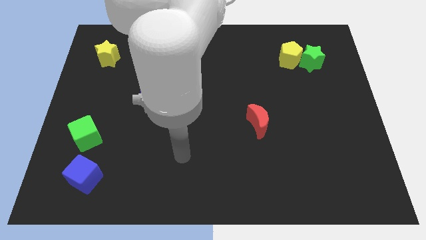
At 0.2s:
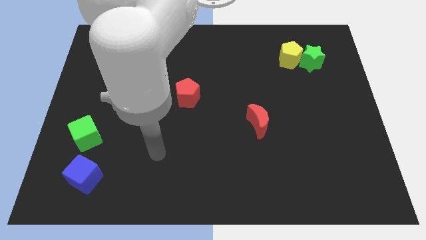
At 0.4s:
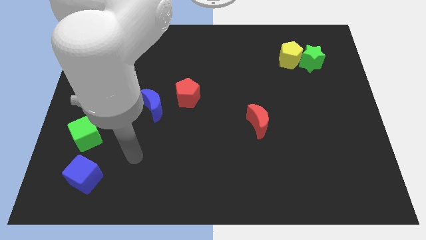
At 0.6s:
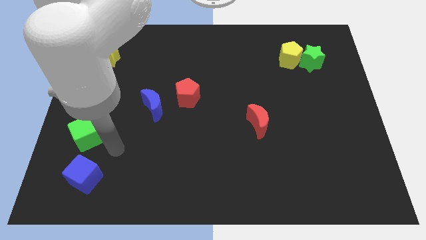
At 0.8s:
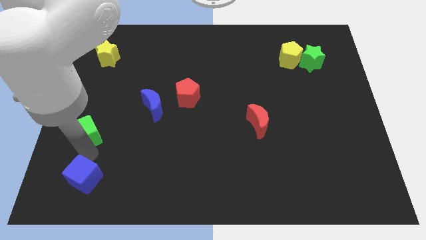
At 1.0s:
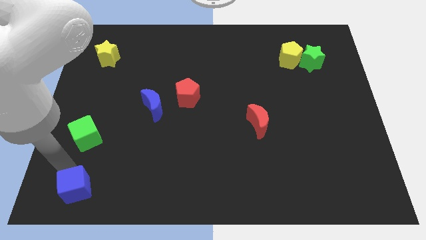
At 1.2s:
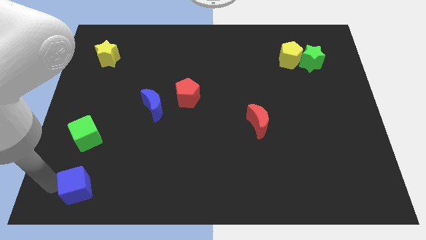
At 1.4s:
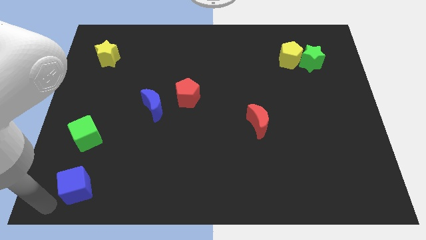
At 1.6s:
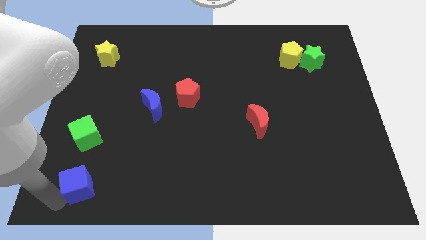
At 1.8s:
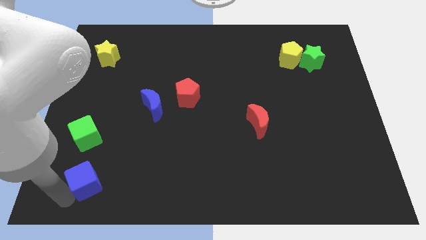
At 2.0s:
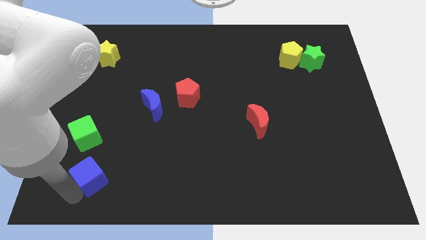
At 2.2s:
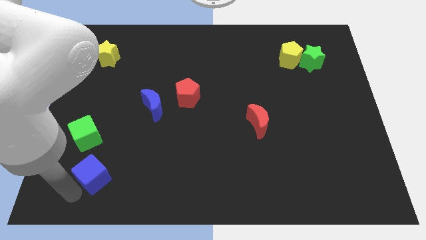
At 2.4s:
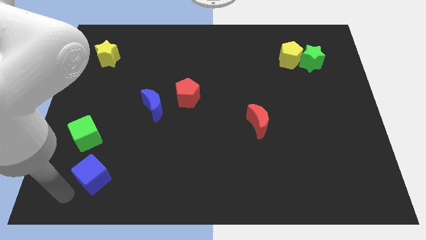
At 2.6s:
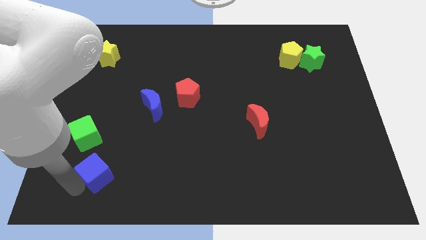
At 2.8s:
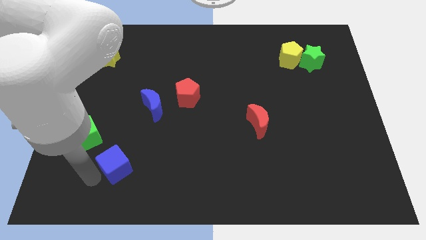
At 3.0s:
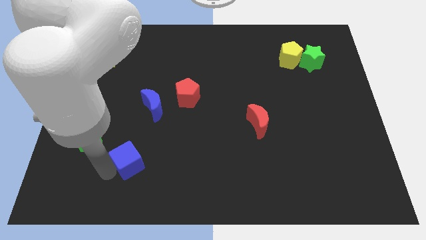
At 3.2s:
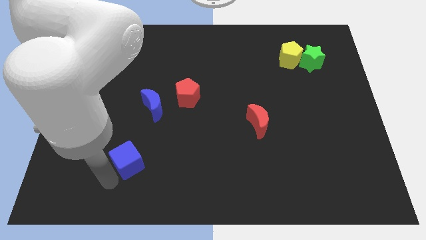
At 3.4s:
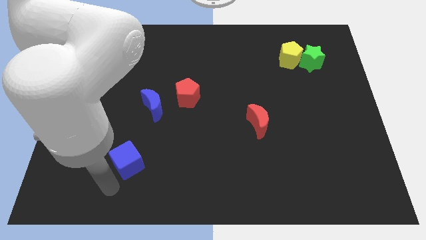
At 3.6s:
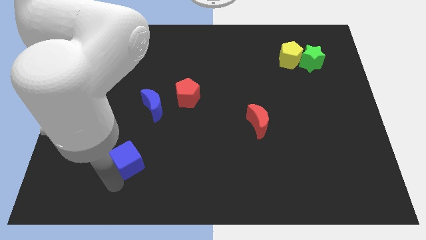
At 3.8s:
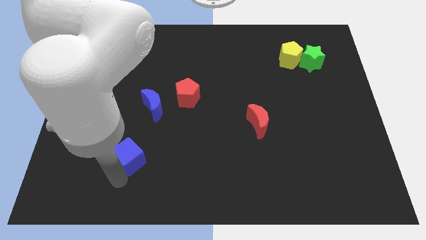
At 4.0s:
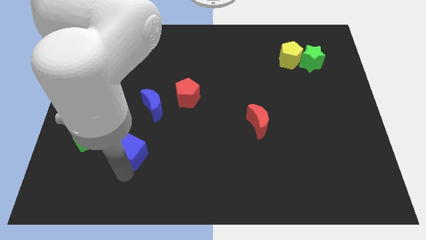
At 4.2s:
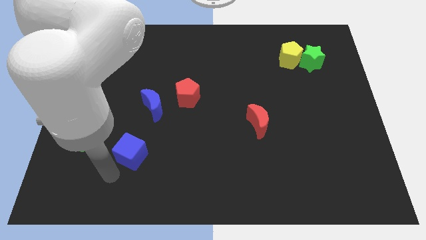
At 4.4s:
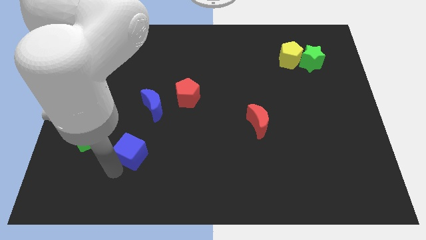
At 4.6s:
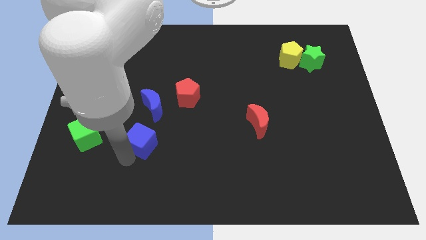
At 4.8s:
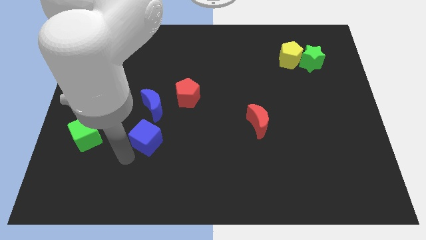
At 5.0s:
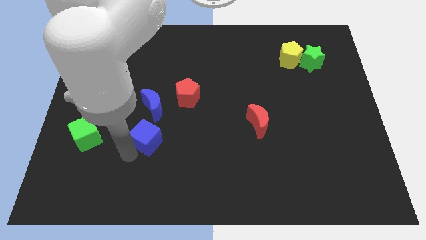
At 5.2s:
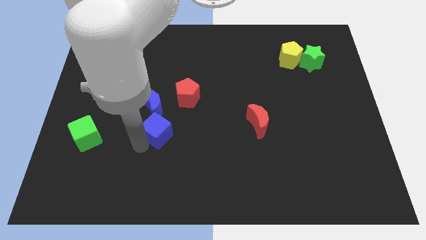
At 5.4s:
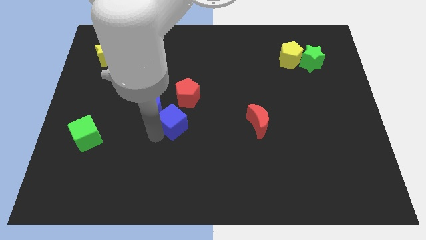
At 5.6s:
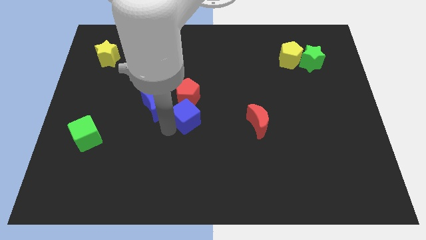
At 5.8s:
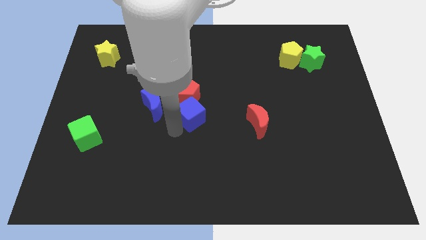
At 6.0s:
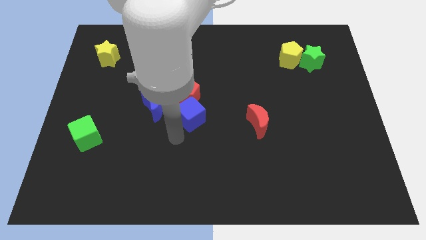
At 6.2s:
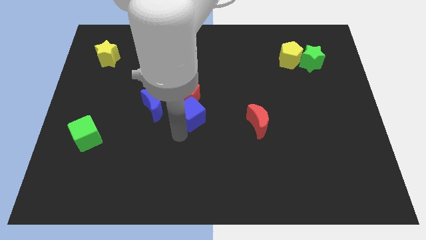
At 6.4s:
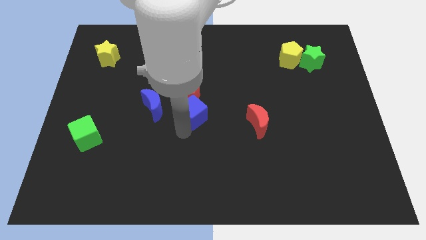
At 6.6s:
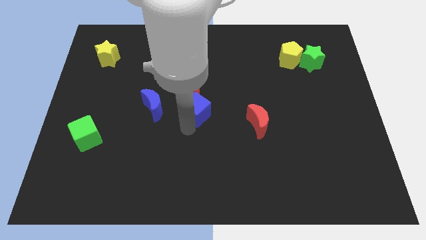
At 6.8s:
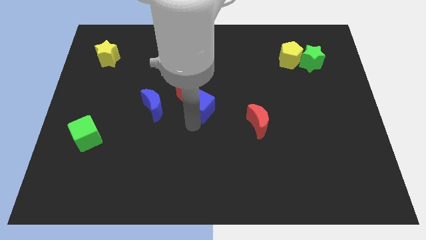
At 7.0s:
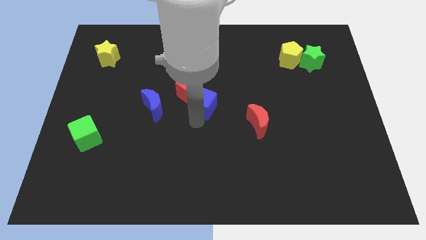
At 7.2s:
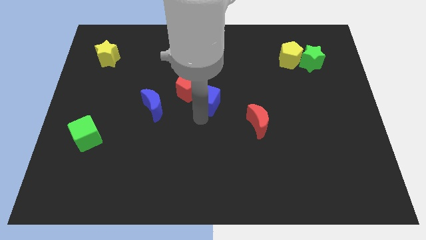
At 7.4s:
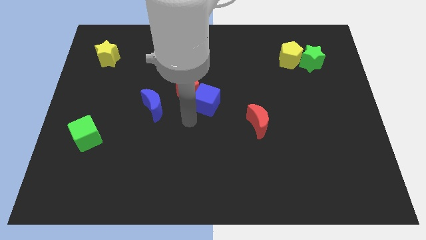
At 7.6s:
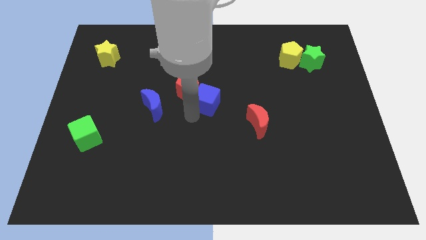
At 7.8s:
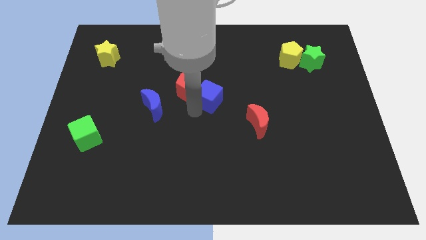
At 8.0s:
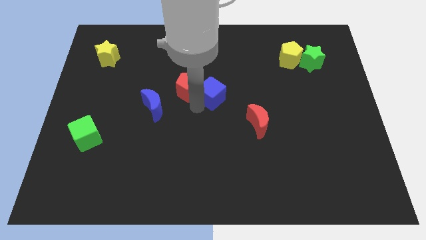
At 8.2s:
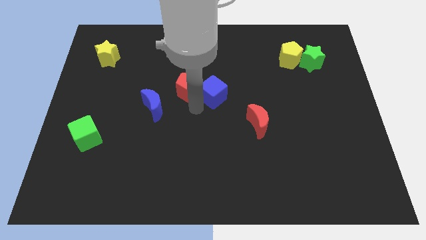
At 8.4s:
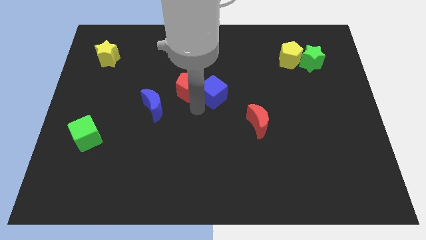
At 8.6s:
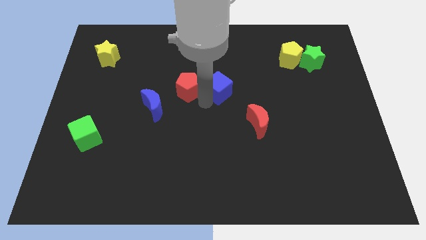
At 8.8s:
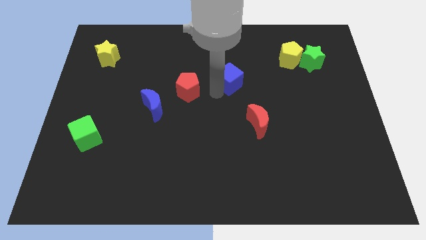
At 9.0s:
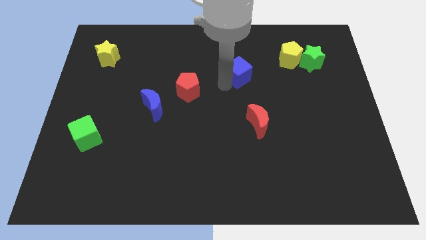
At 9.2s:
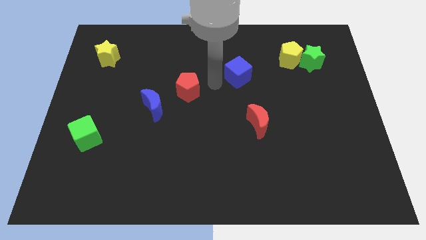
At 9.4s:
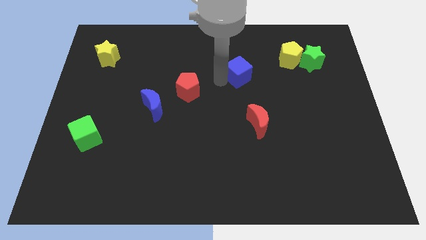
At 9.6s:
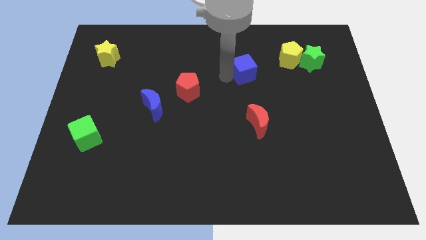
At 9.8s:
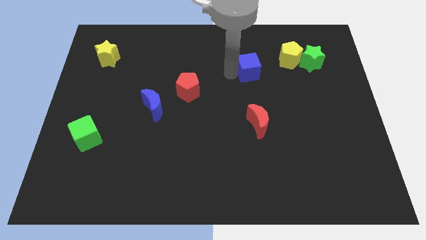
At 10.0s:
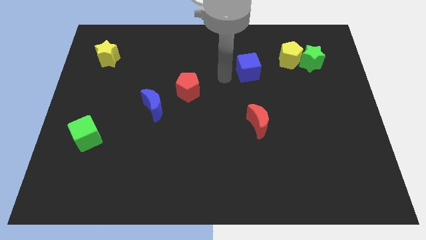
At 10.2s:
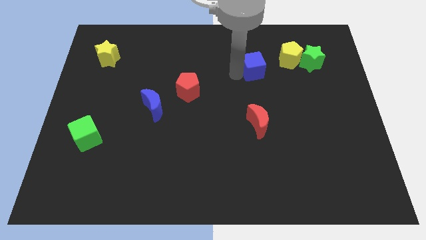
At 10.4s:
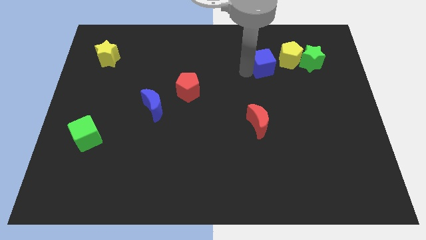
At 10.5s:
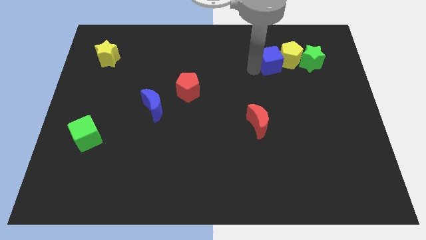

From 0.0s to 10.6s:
push the blue cube close to the yellow pentagon

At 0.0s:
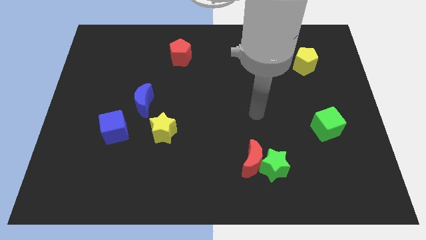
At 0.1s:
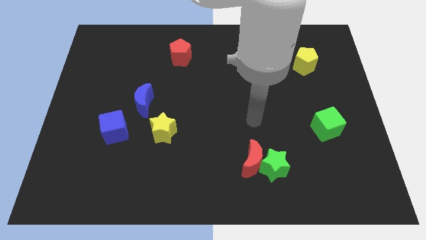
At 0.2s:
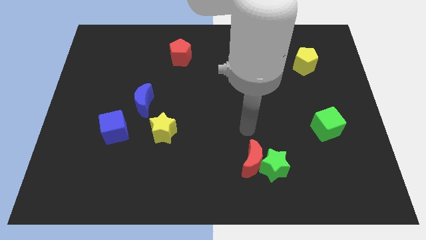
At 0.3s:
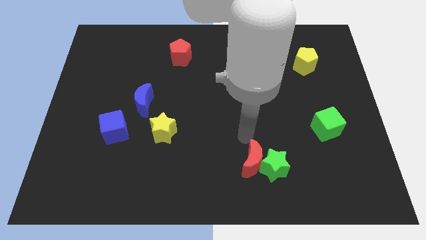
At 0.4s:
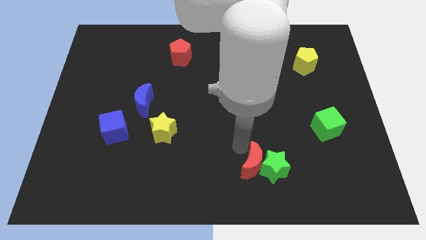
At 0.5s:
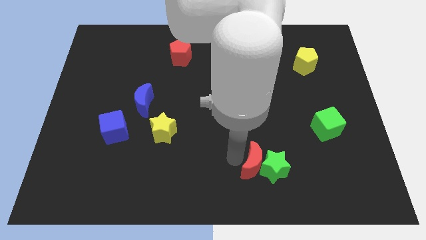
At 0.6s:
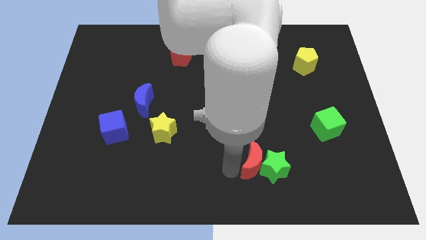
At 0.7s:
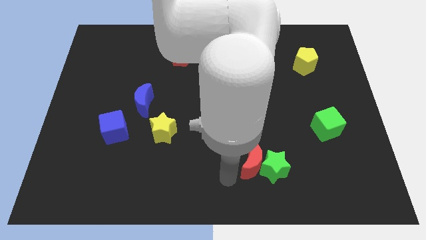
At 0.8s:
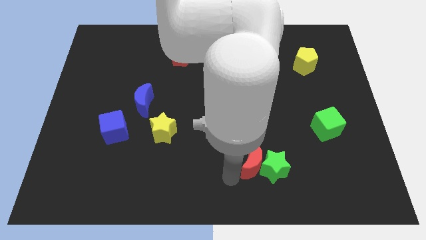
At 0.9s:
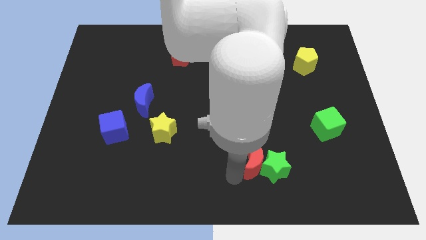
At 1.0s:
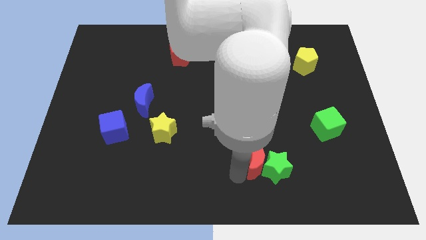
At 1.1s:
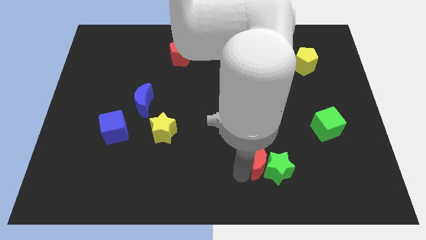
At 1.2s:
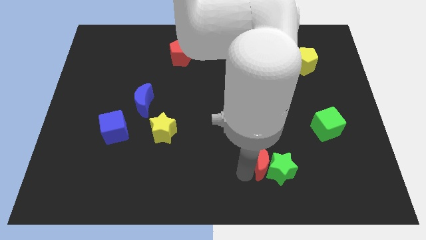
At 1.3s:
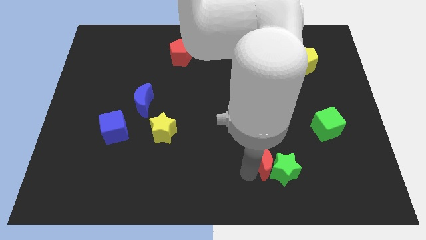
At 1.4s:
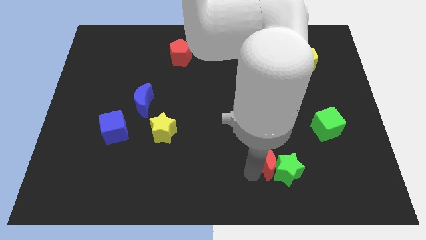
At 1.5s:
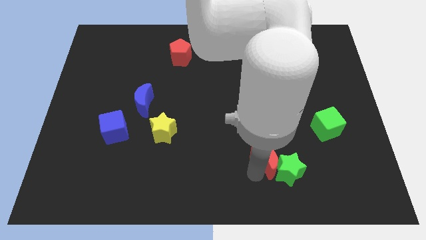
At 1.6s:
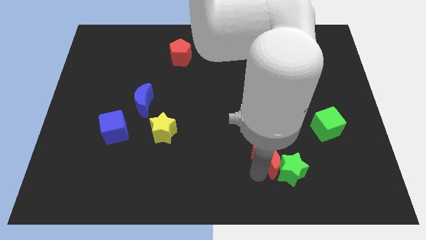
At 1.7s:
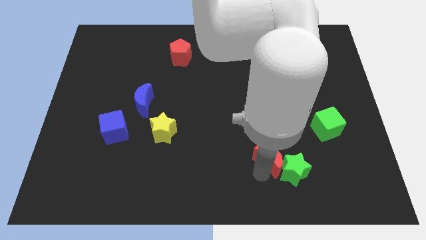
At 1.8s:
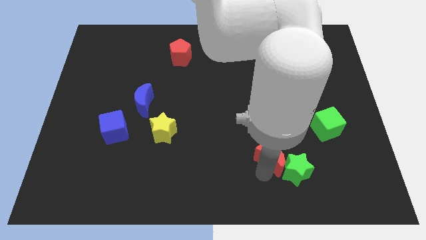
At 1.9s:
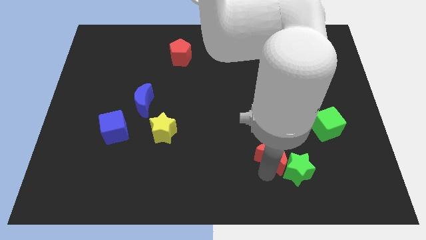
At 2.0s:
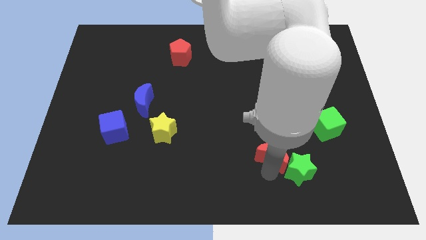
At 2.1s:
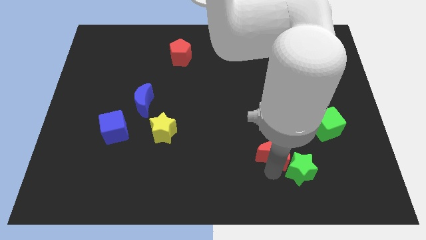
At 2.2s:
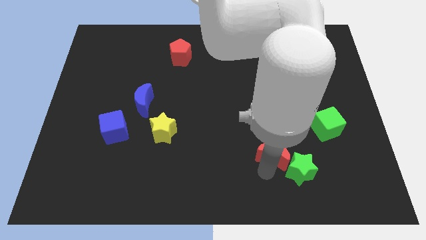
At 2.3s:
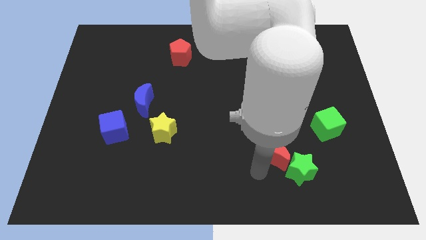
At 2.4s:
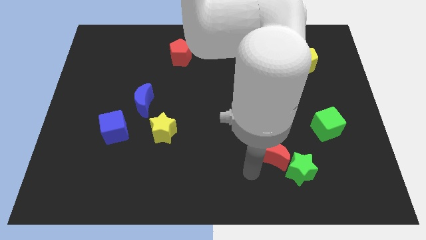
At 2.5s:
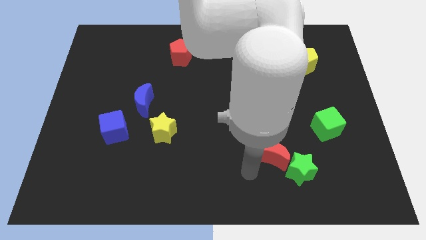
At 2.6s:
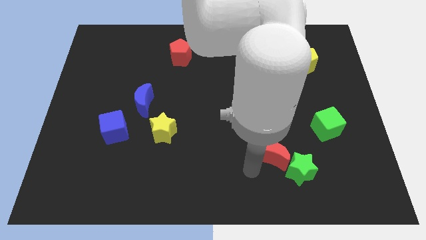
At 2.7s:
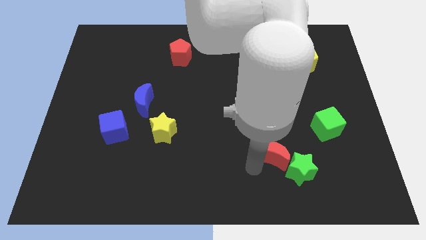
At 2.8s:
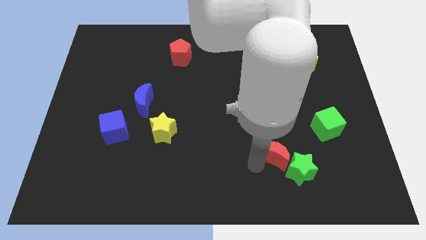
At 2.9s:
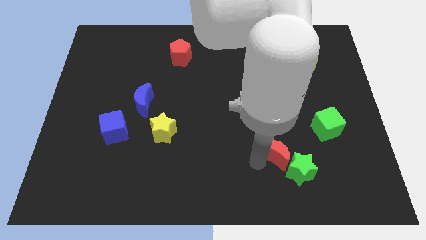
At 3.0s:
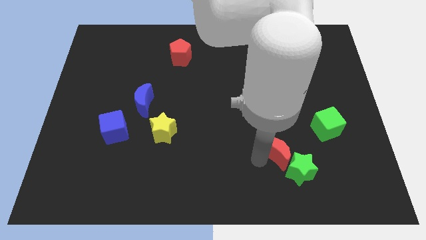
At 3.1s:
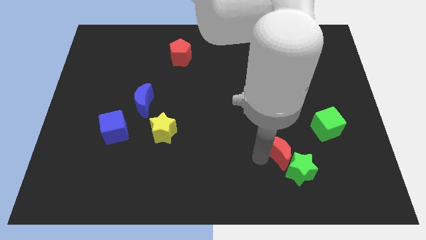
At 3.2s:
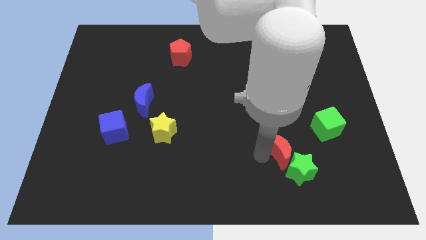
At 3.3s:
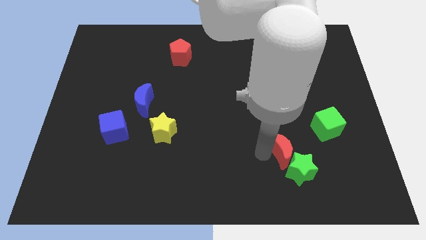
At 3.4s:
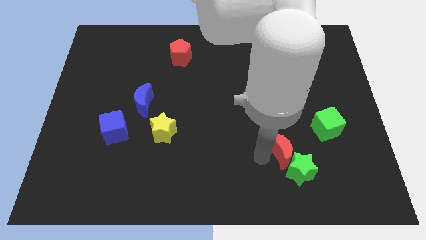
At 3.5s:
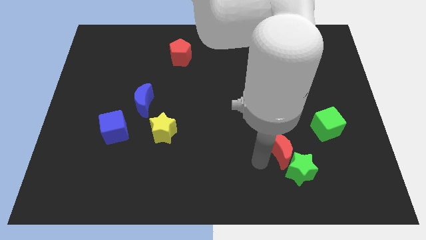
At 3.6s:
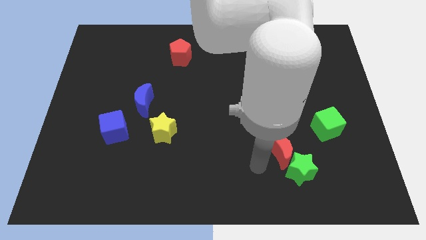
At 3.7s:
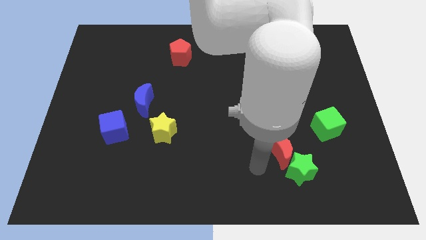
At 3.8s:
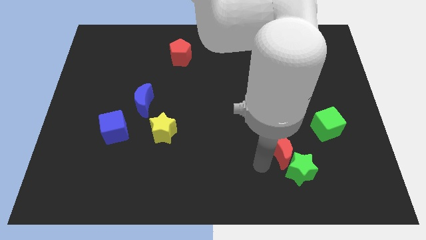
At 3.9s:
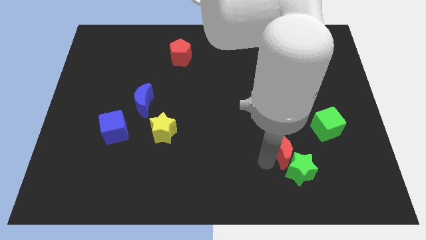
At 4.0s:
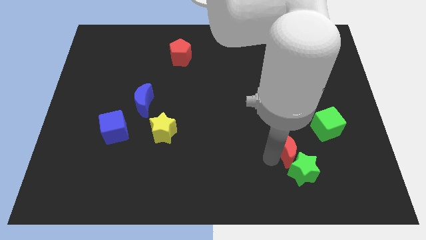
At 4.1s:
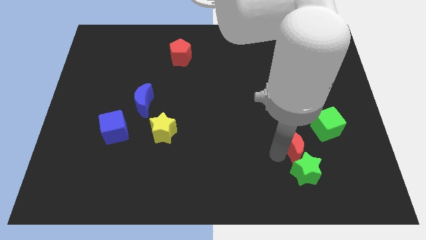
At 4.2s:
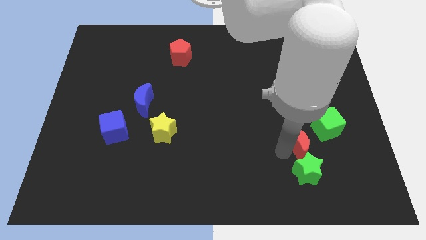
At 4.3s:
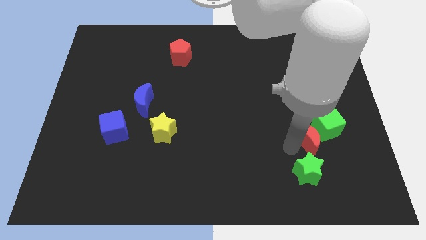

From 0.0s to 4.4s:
put the red moon towards the green cube
